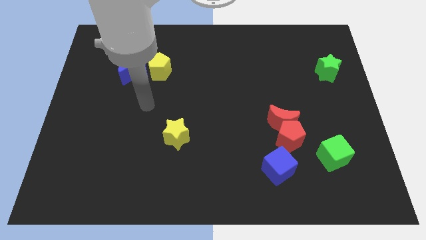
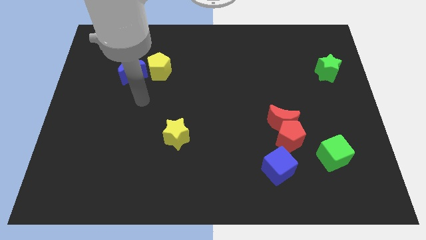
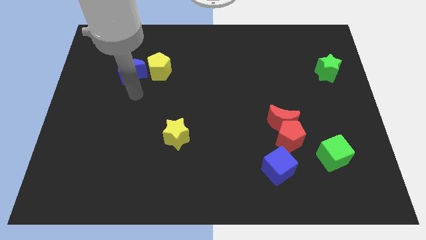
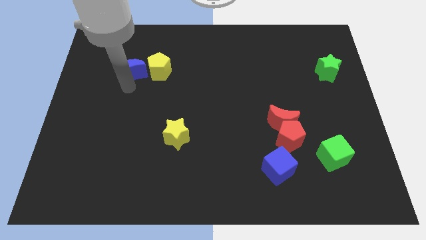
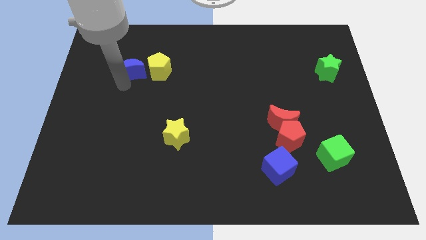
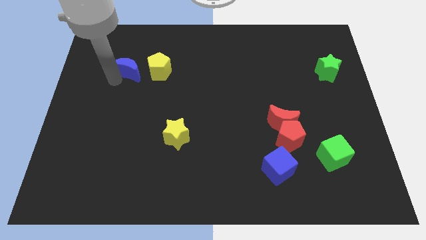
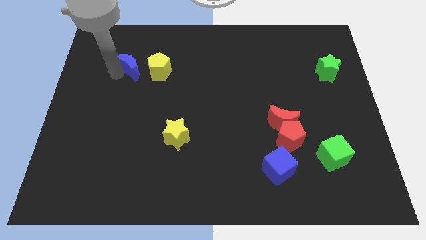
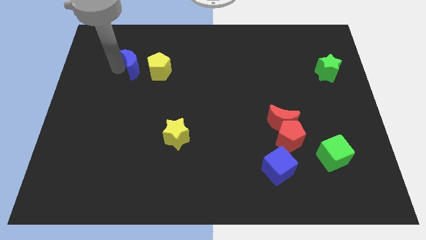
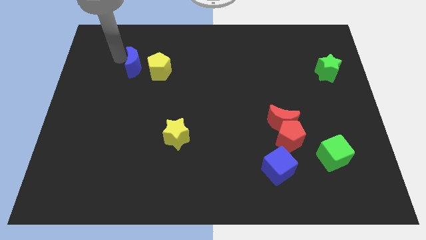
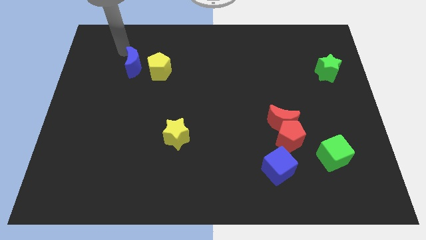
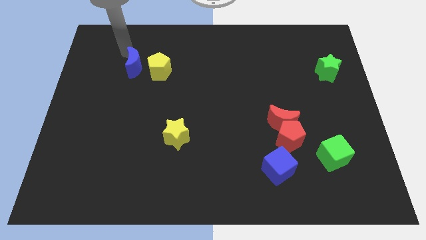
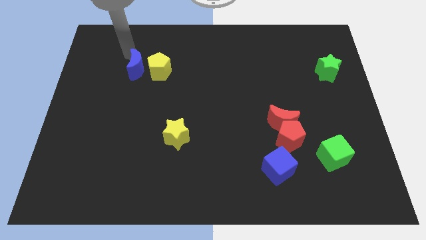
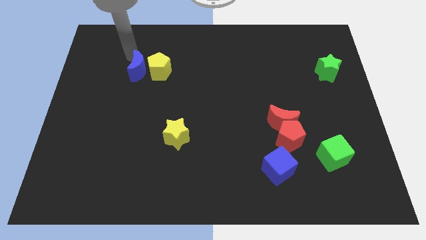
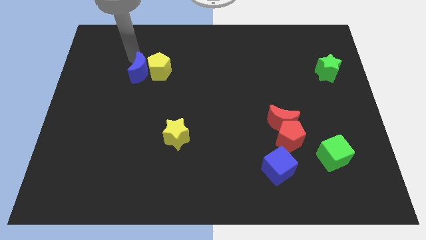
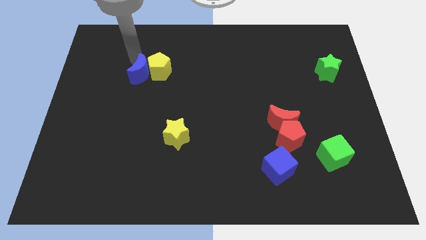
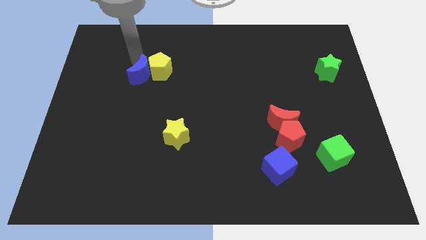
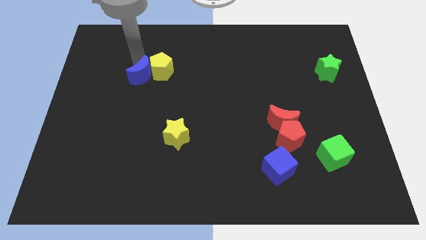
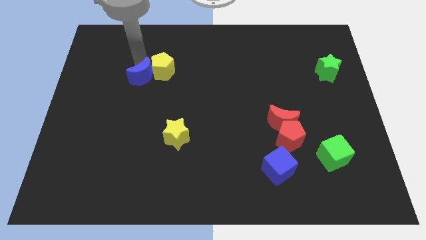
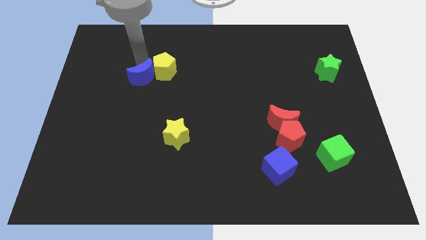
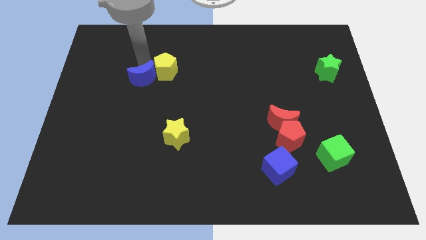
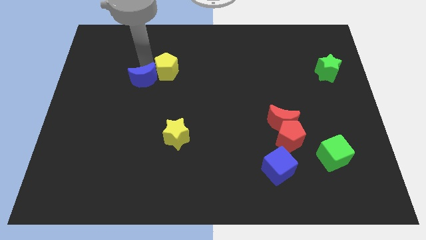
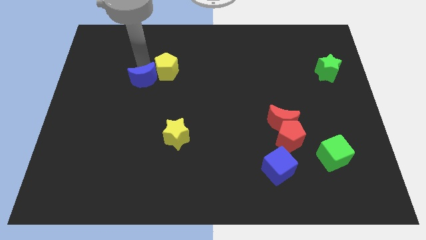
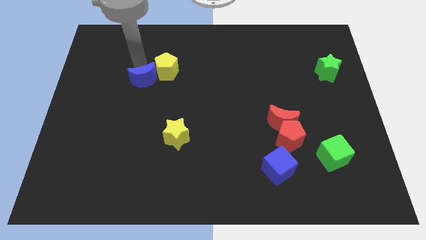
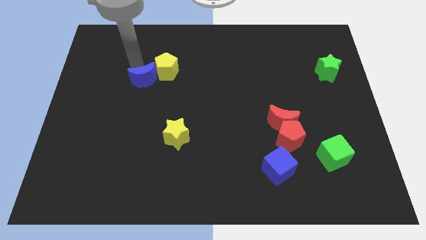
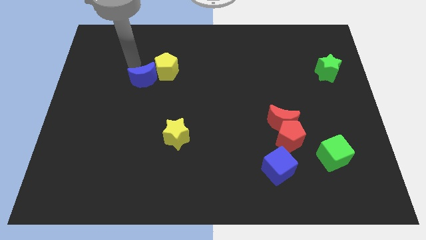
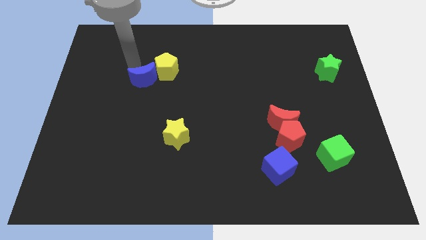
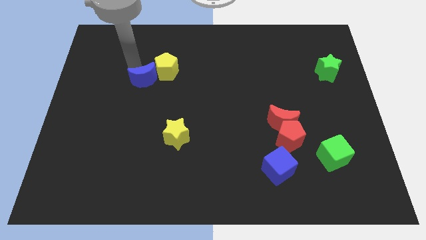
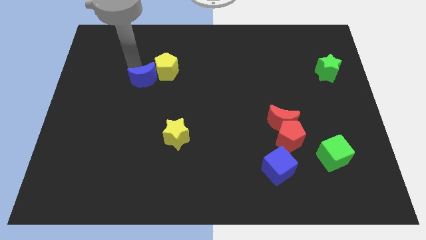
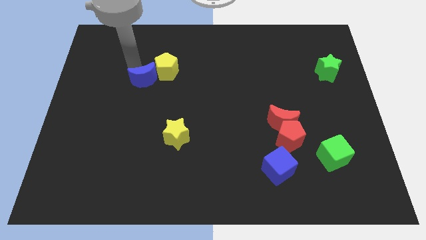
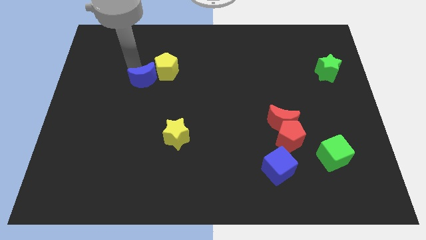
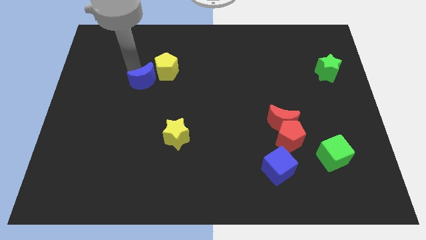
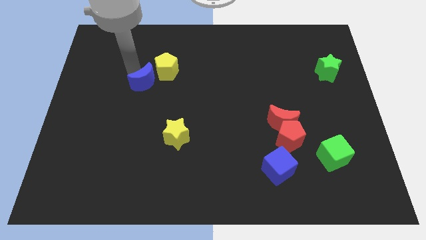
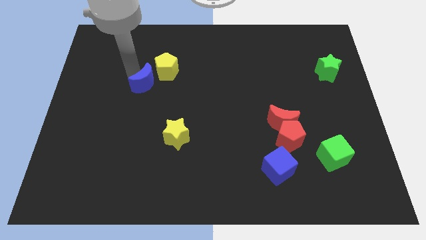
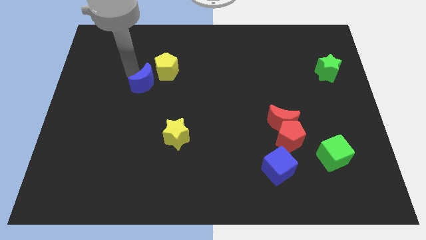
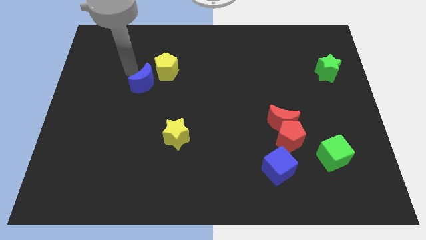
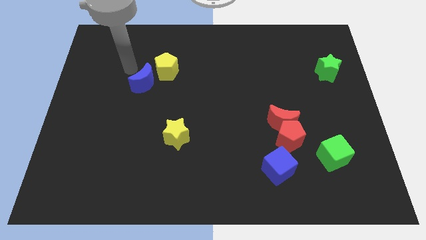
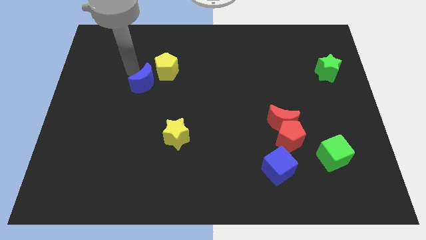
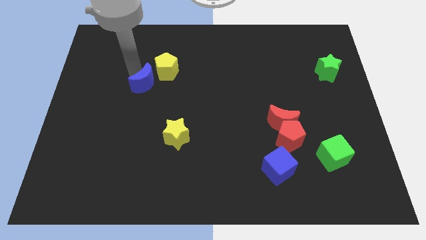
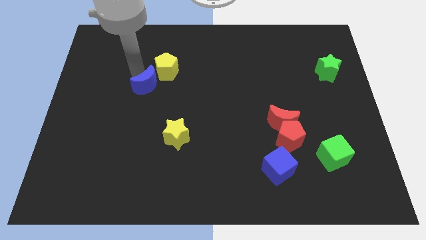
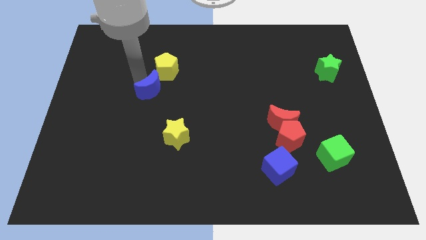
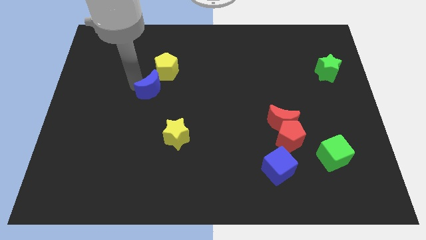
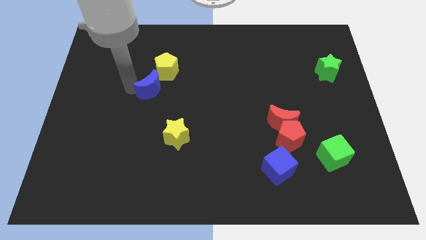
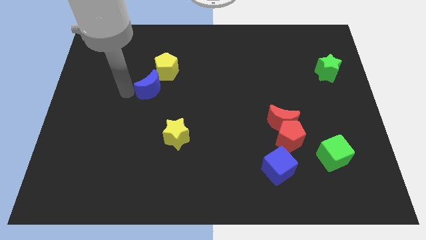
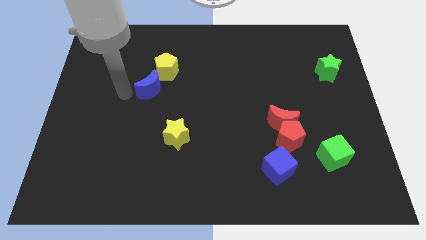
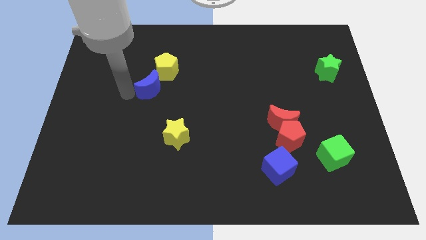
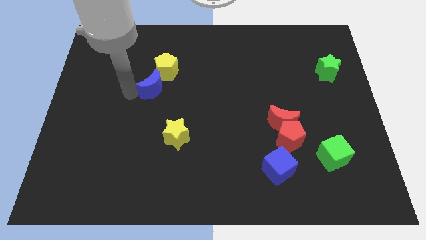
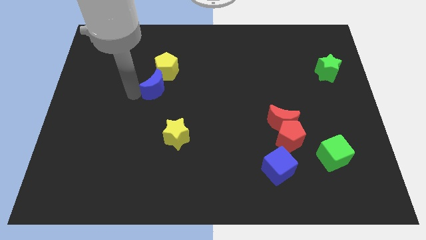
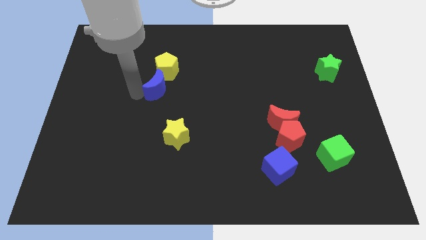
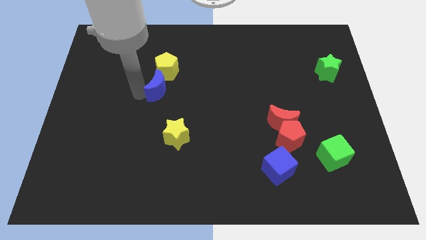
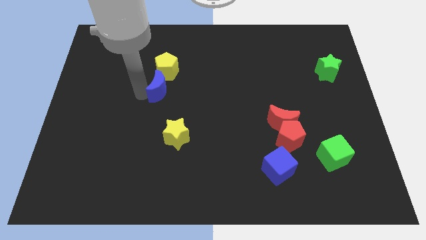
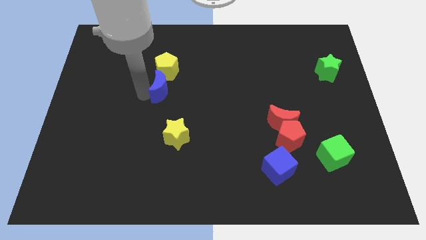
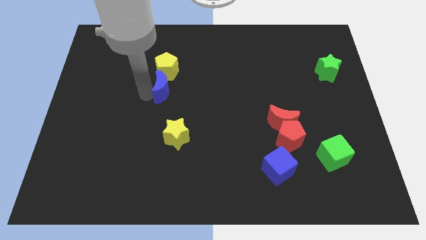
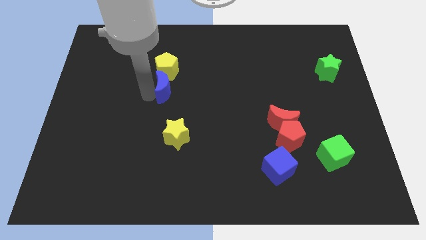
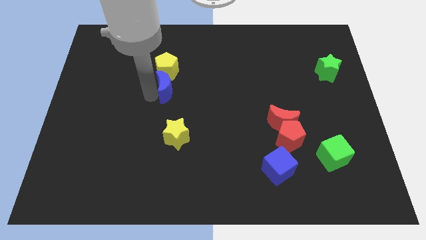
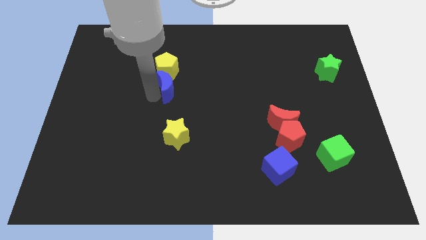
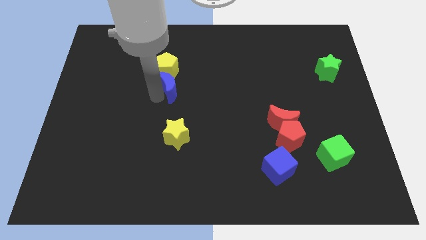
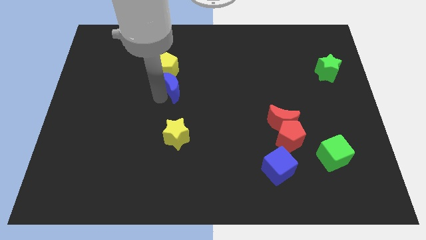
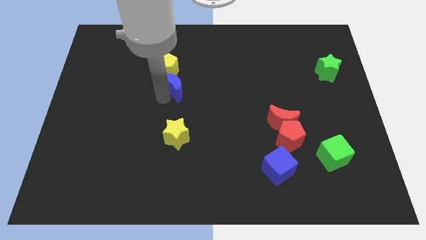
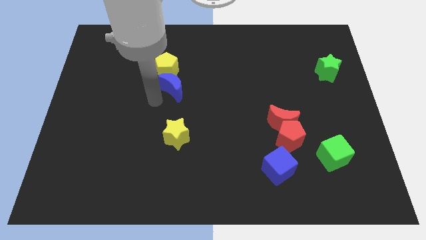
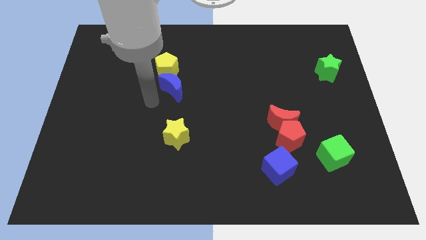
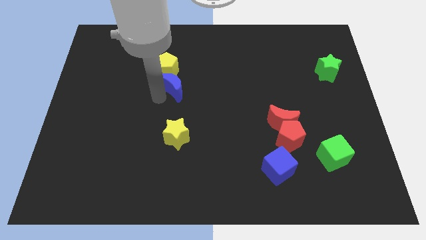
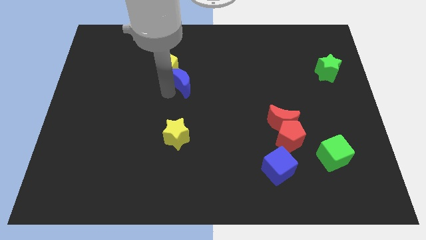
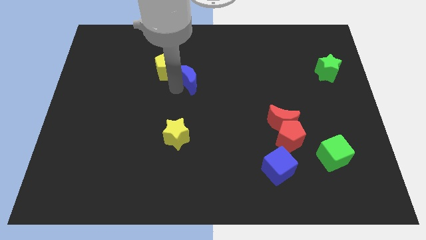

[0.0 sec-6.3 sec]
move the blue moon to the right side of the yellow pentagon

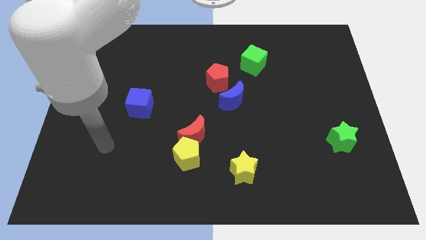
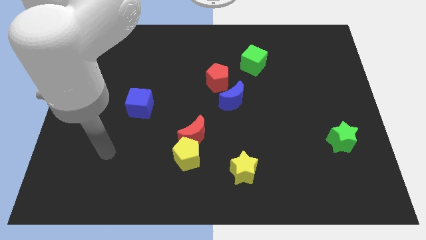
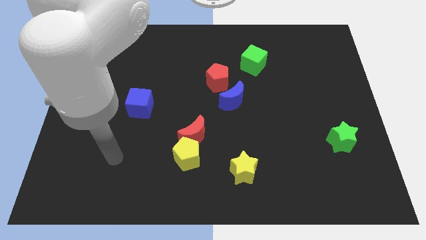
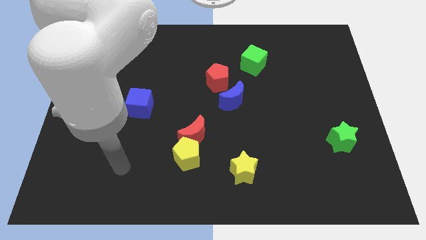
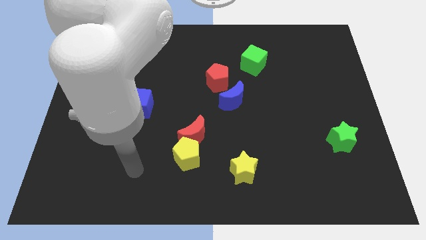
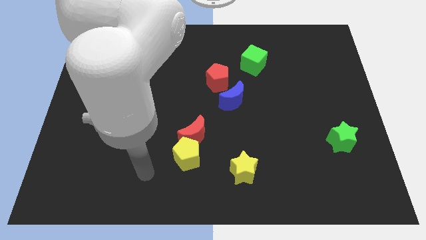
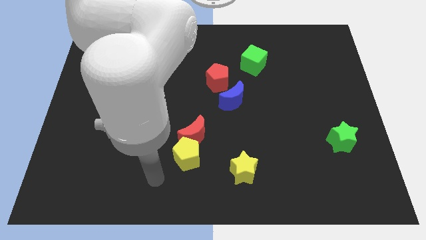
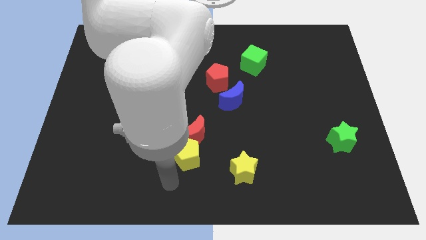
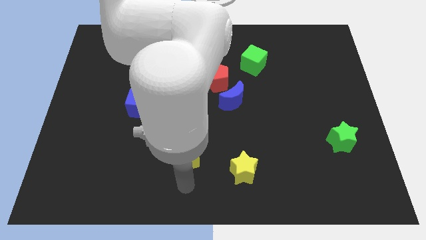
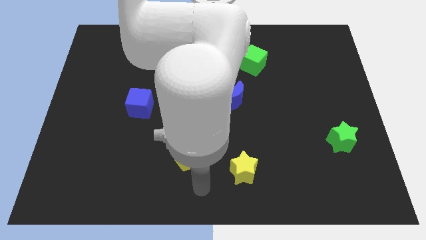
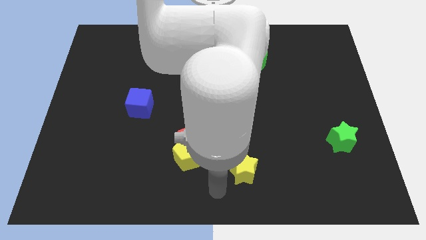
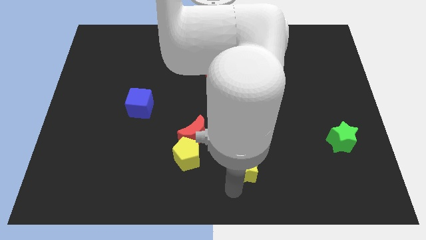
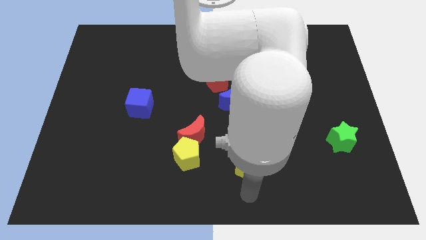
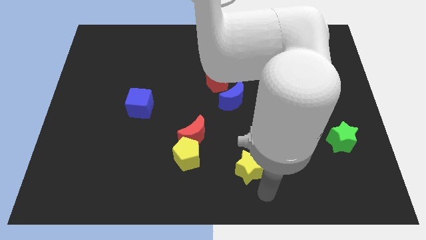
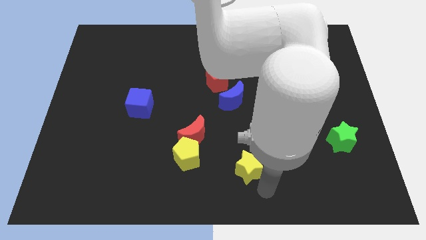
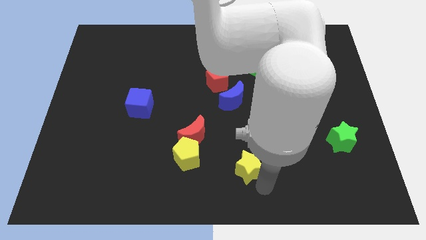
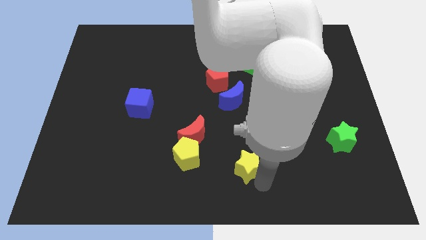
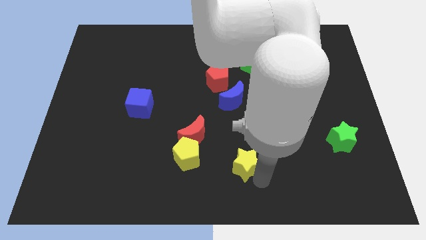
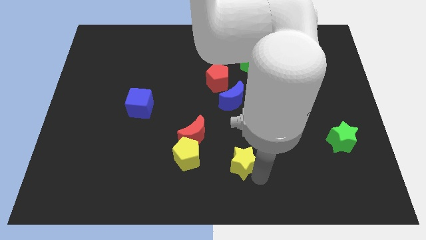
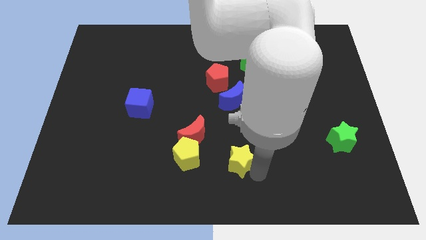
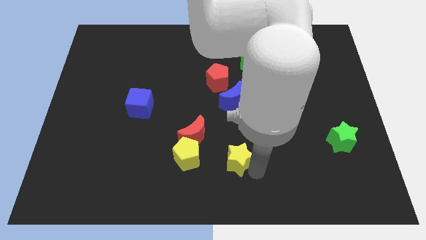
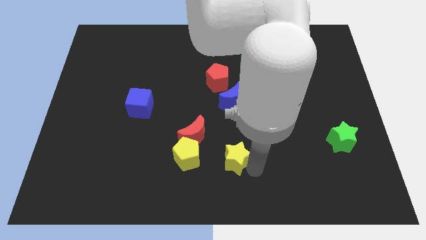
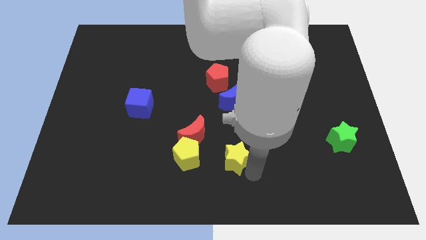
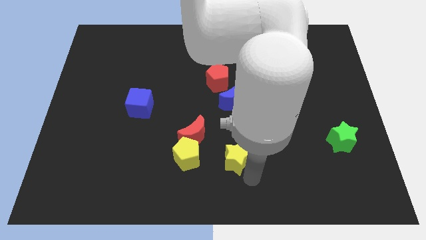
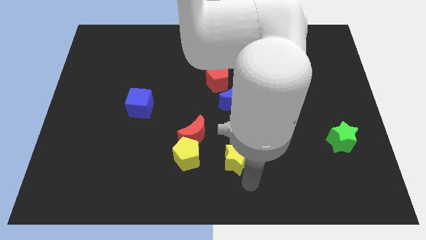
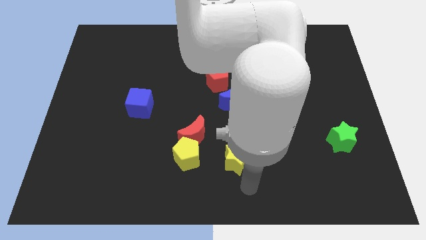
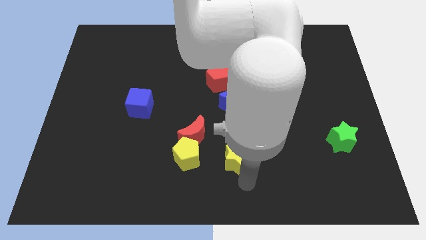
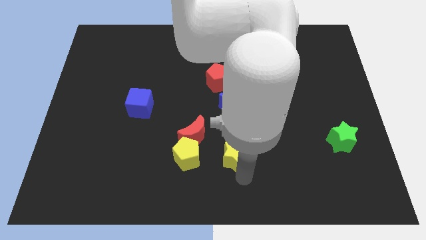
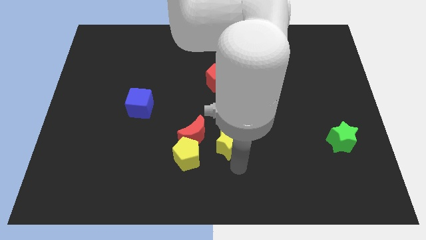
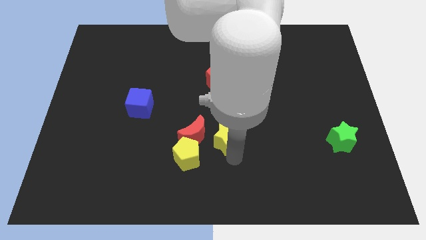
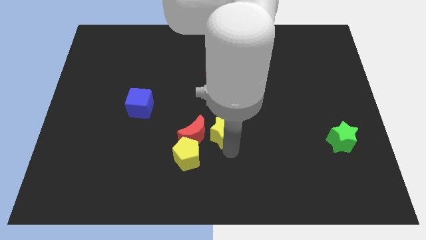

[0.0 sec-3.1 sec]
move the yellow star to the bottom left side of the blue moon
